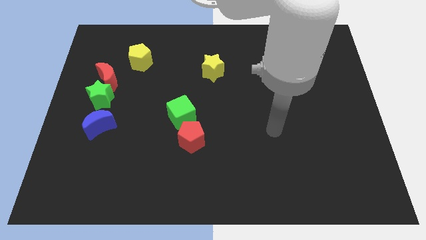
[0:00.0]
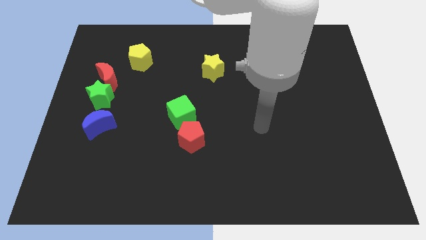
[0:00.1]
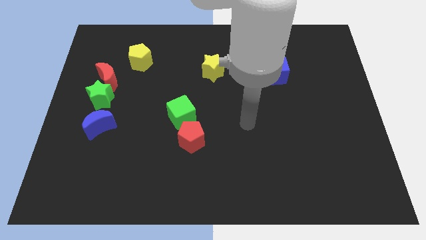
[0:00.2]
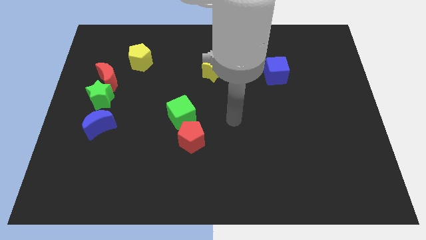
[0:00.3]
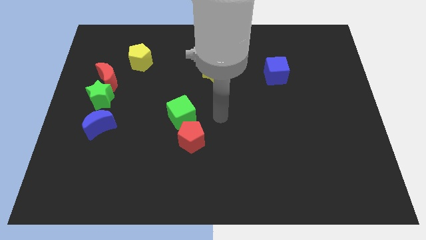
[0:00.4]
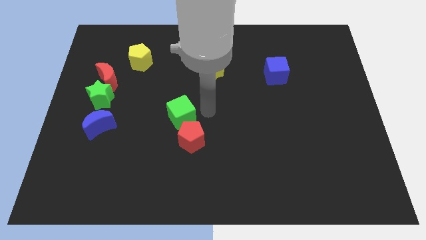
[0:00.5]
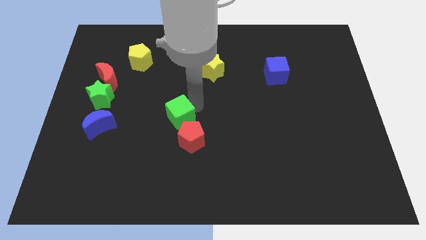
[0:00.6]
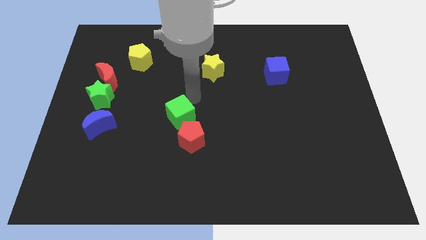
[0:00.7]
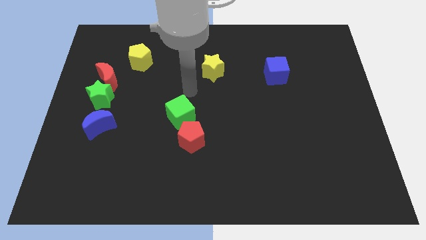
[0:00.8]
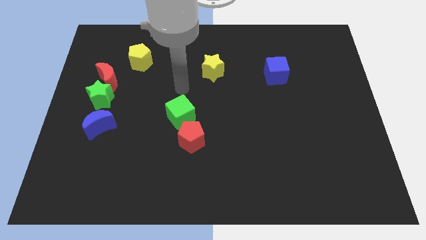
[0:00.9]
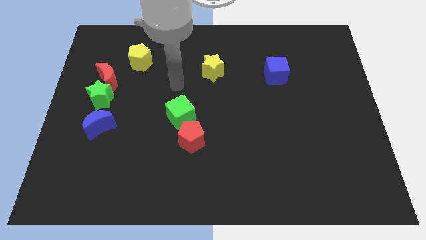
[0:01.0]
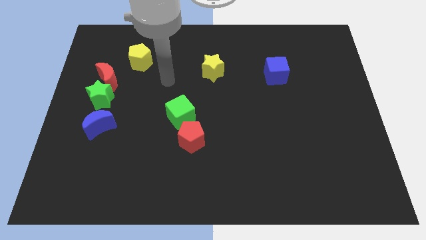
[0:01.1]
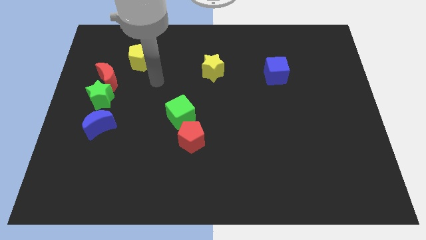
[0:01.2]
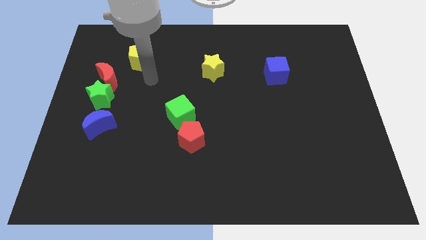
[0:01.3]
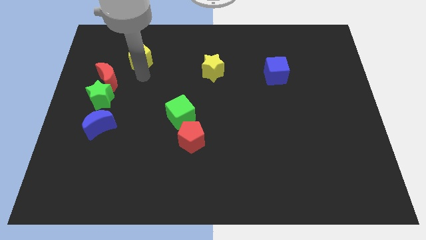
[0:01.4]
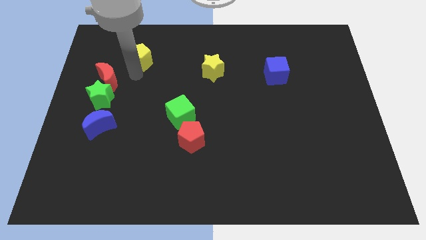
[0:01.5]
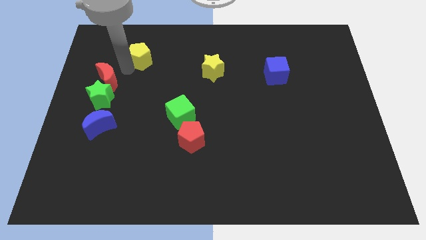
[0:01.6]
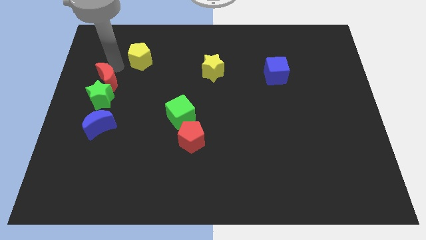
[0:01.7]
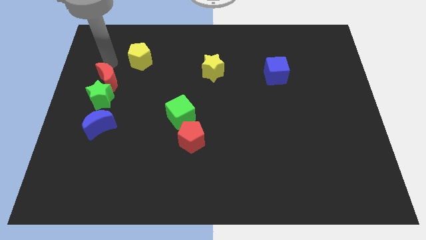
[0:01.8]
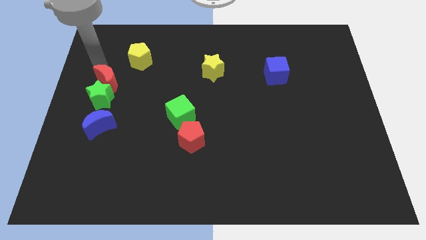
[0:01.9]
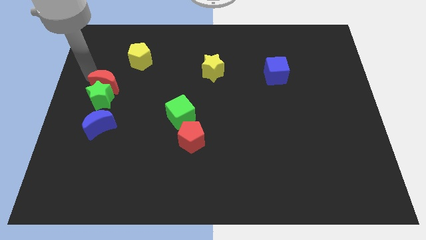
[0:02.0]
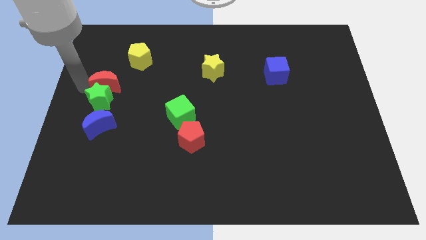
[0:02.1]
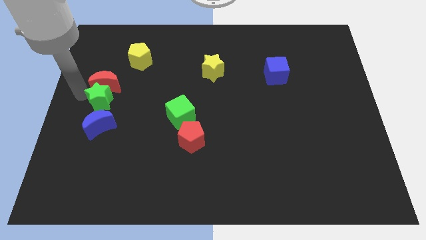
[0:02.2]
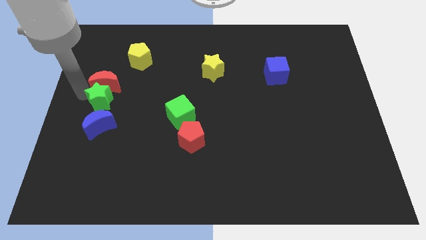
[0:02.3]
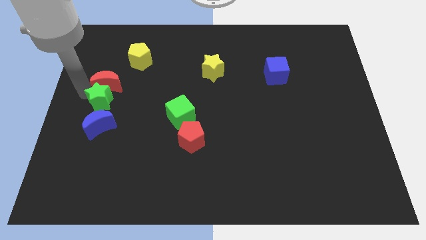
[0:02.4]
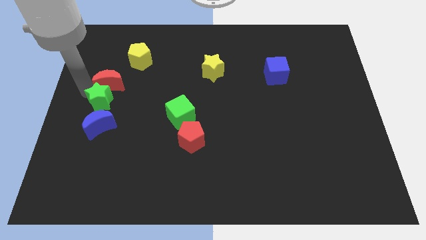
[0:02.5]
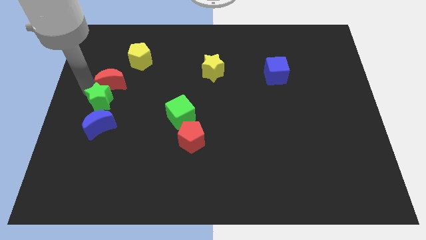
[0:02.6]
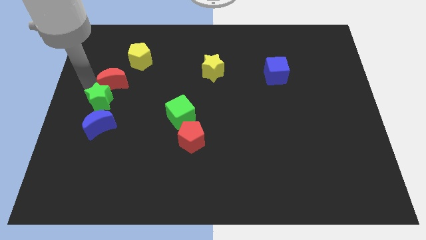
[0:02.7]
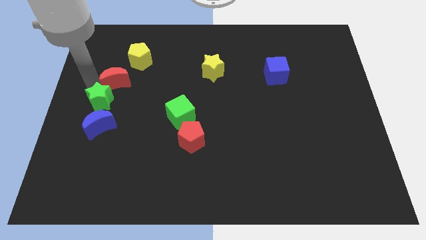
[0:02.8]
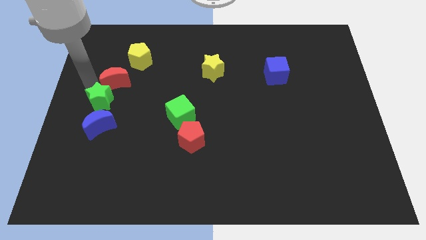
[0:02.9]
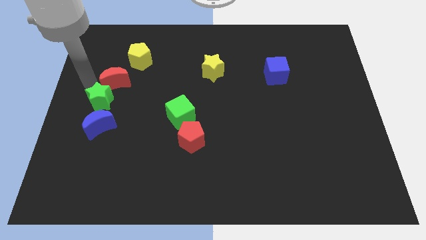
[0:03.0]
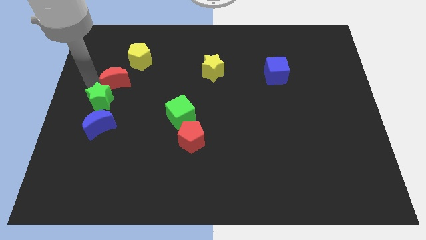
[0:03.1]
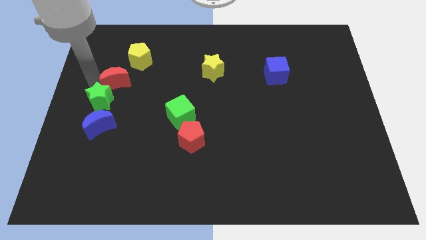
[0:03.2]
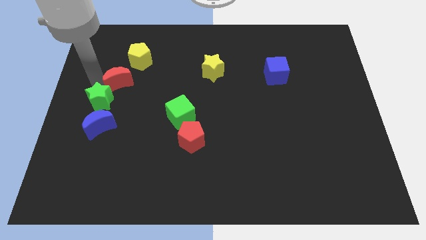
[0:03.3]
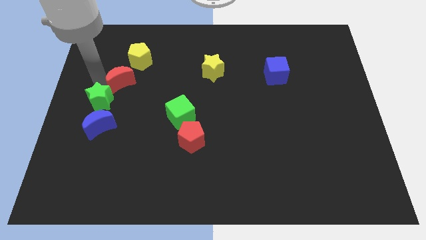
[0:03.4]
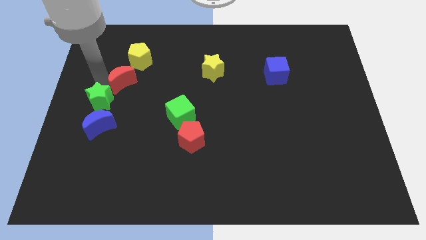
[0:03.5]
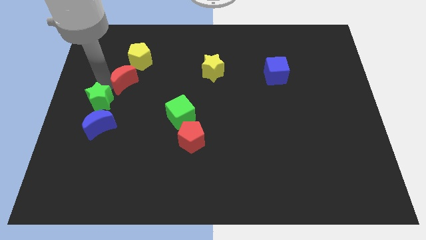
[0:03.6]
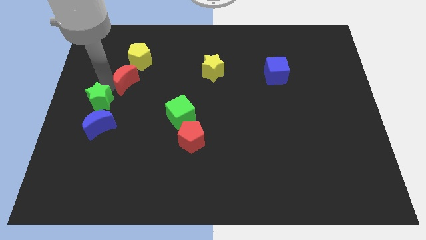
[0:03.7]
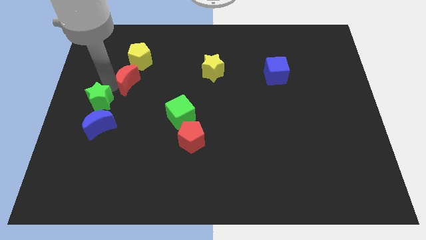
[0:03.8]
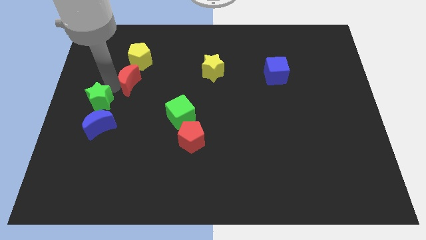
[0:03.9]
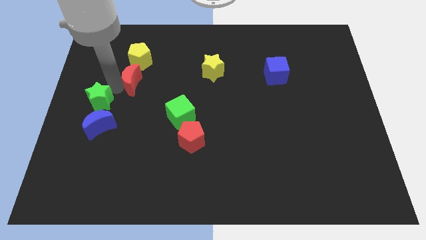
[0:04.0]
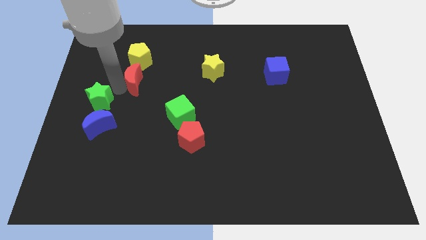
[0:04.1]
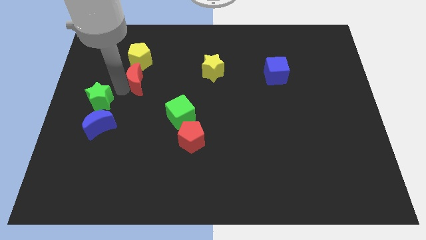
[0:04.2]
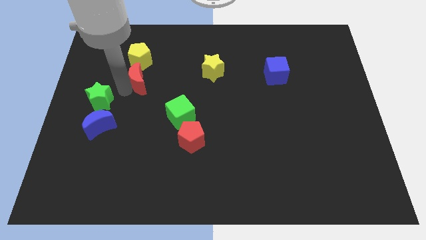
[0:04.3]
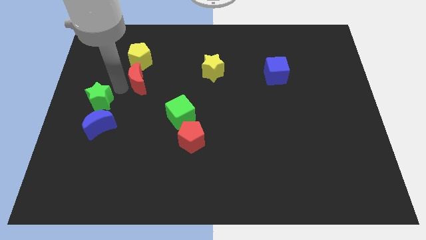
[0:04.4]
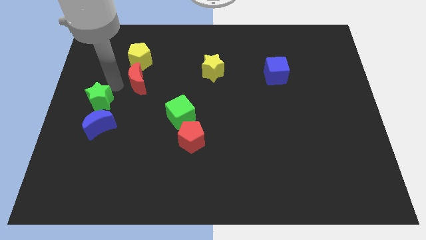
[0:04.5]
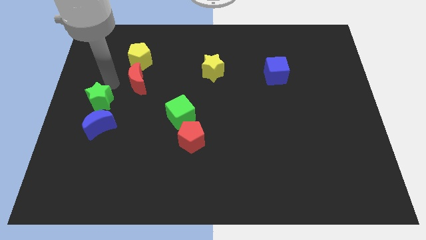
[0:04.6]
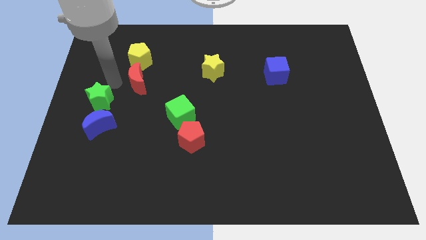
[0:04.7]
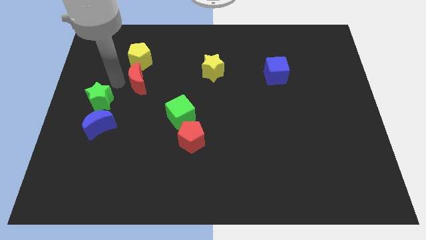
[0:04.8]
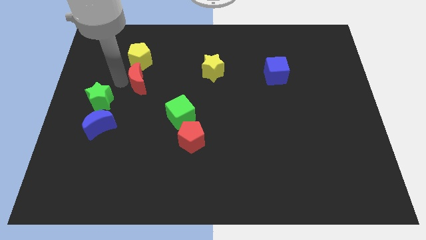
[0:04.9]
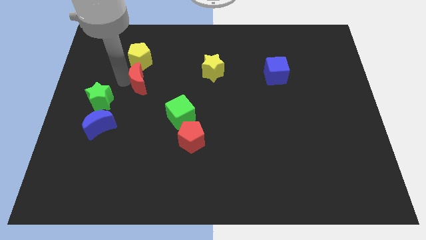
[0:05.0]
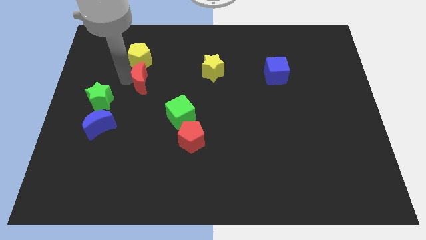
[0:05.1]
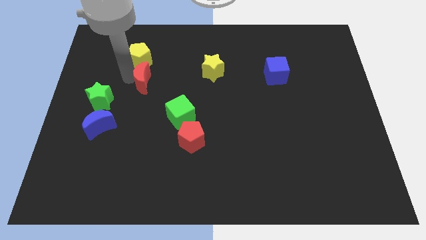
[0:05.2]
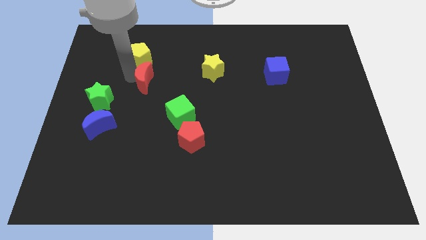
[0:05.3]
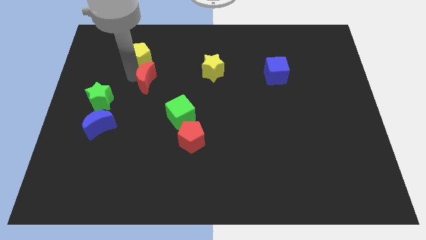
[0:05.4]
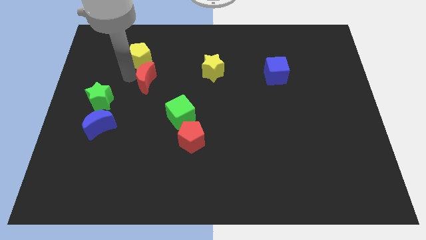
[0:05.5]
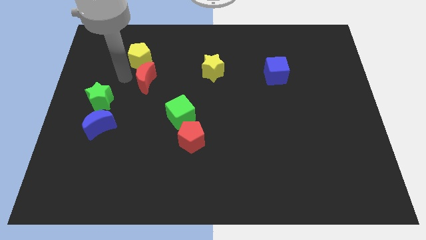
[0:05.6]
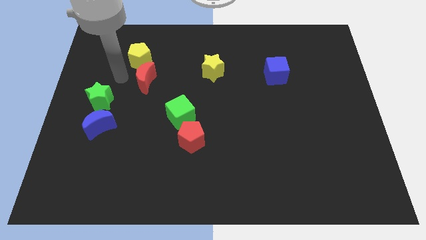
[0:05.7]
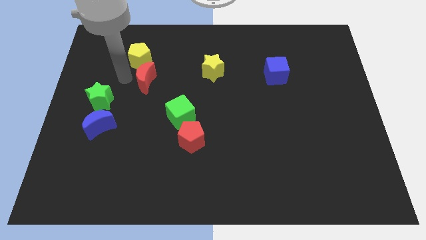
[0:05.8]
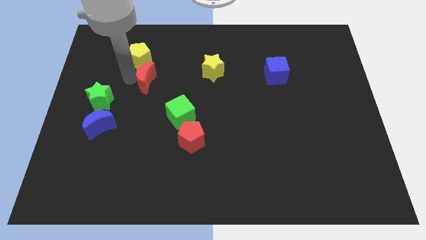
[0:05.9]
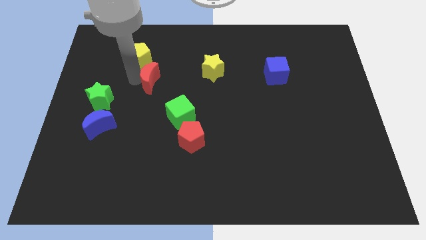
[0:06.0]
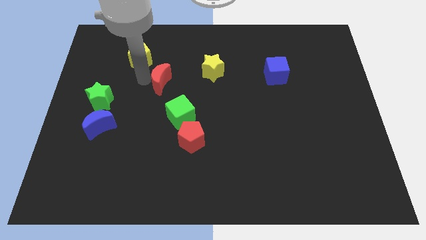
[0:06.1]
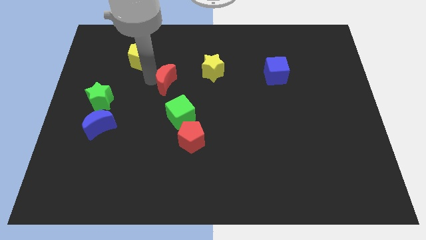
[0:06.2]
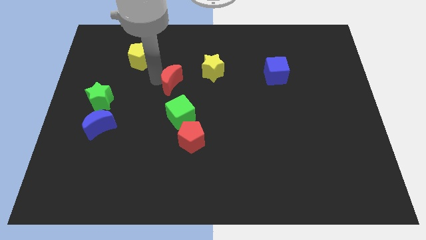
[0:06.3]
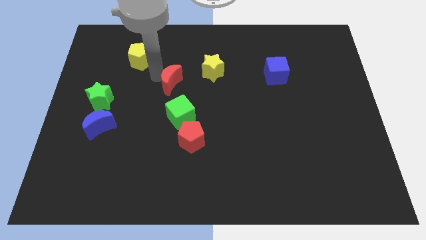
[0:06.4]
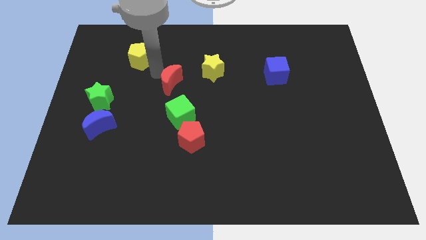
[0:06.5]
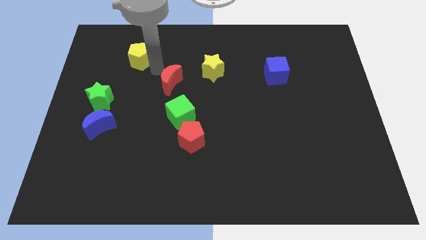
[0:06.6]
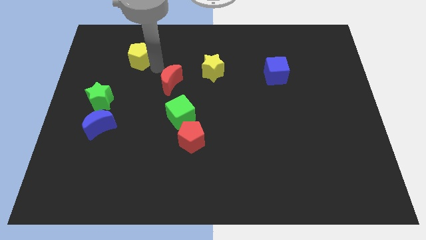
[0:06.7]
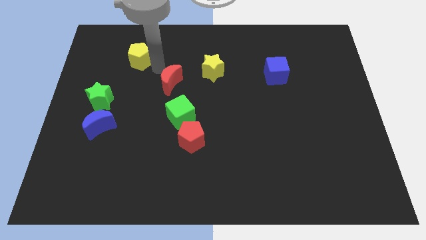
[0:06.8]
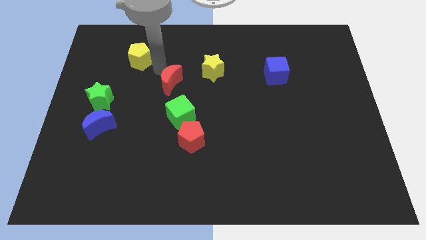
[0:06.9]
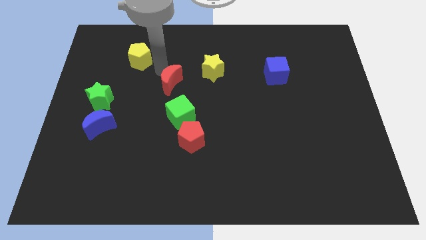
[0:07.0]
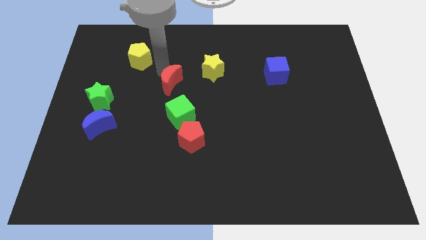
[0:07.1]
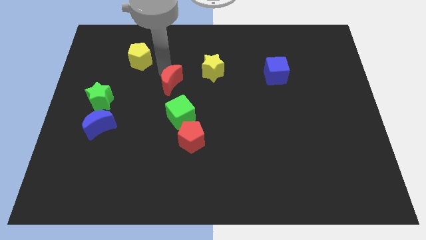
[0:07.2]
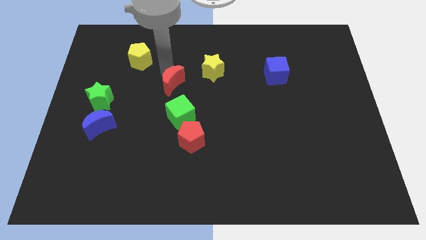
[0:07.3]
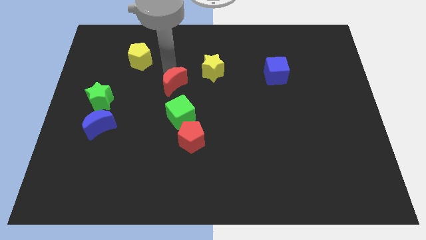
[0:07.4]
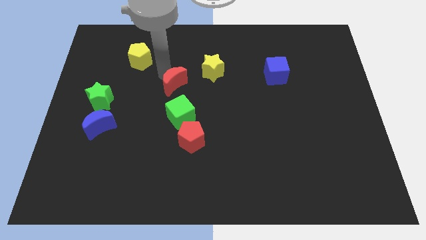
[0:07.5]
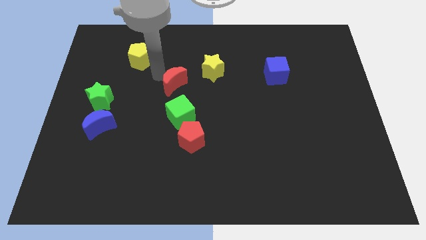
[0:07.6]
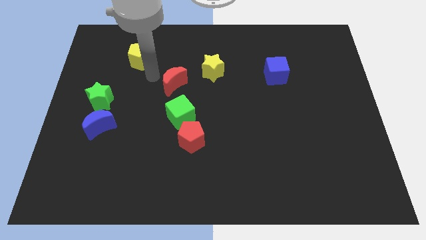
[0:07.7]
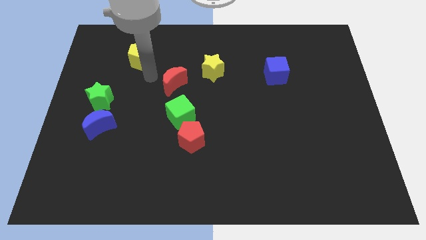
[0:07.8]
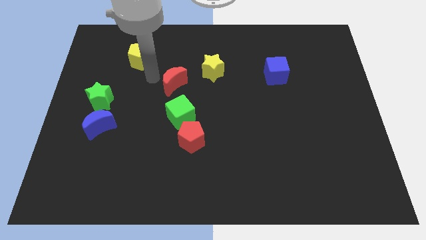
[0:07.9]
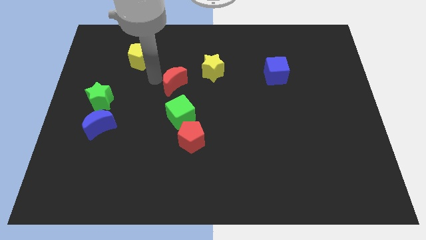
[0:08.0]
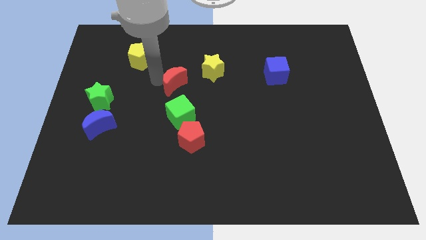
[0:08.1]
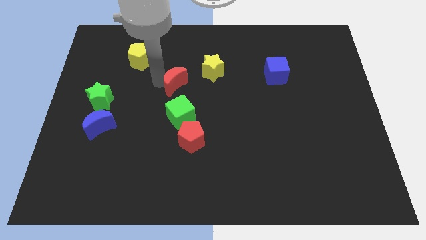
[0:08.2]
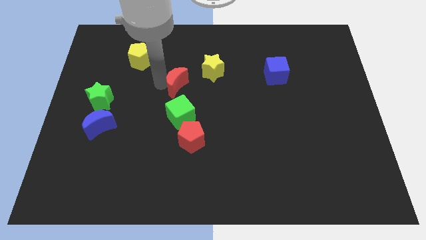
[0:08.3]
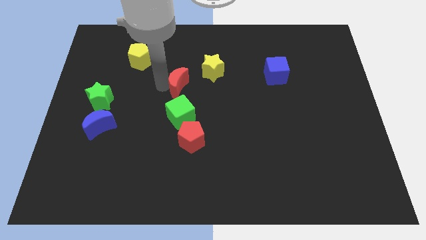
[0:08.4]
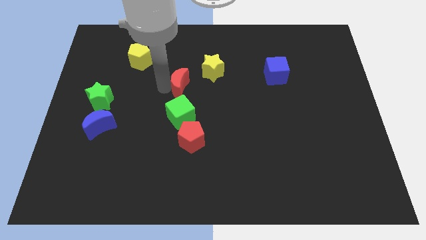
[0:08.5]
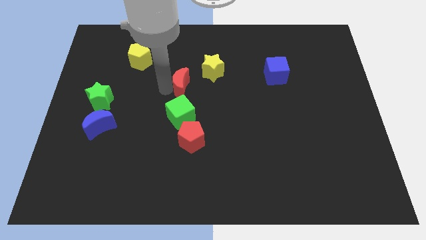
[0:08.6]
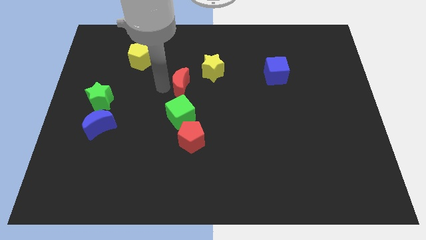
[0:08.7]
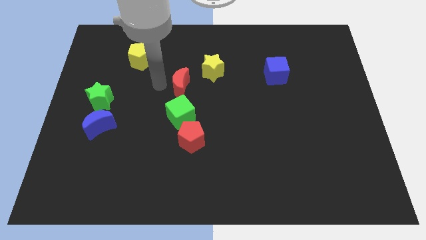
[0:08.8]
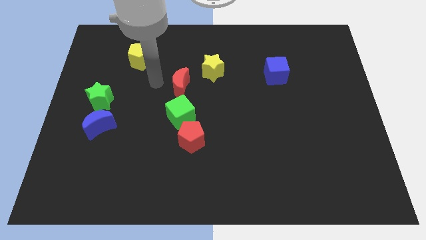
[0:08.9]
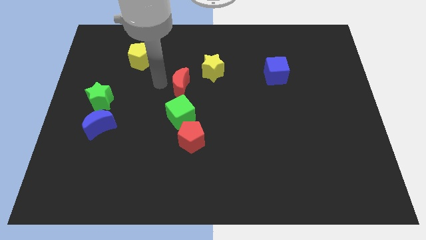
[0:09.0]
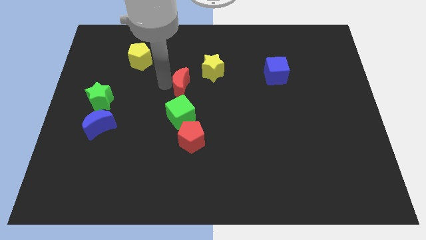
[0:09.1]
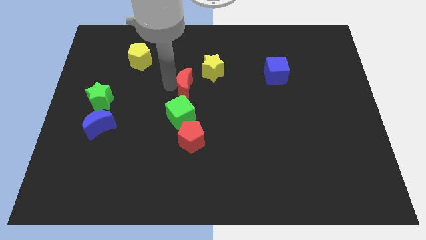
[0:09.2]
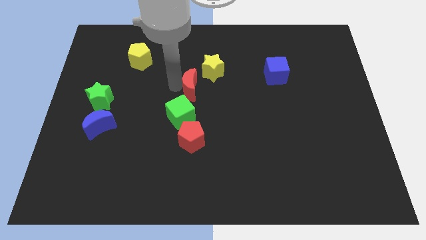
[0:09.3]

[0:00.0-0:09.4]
move the red moon right
